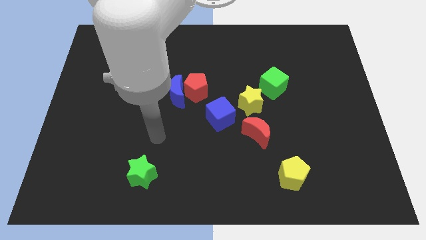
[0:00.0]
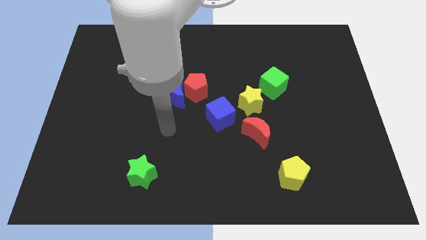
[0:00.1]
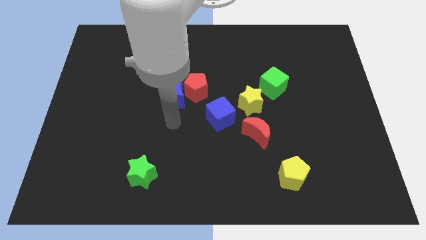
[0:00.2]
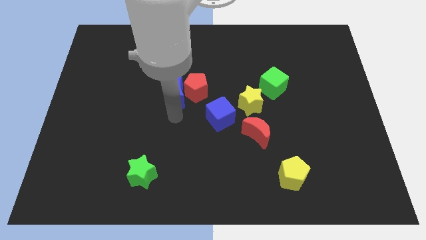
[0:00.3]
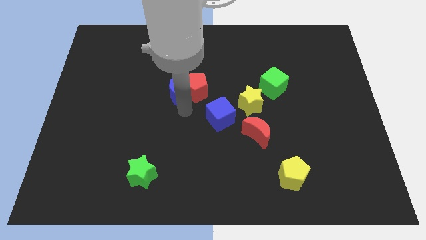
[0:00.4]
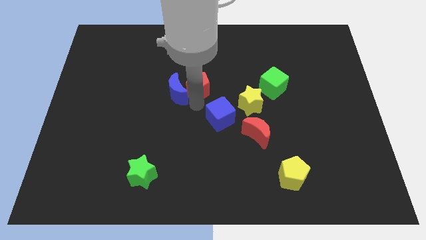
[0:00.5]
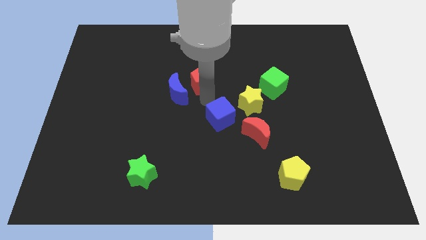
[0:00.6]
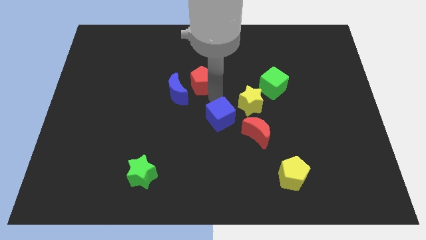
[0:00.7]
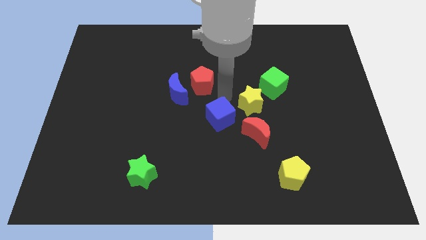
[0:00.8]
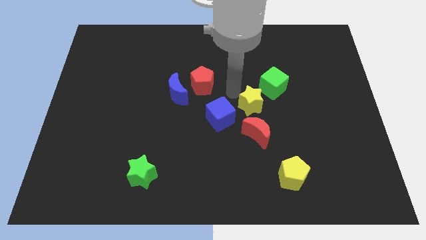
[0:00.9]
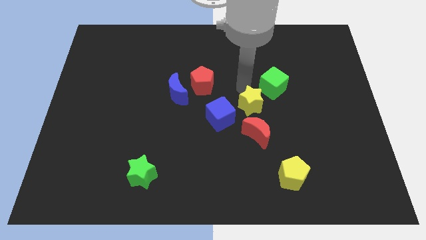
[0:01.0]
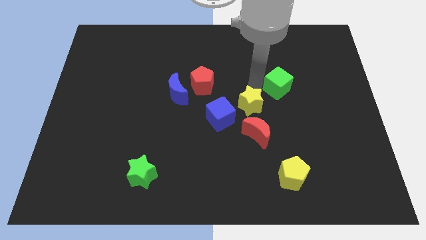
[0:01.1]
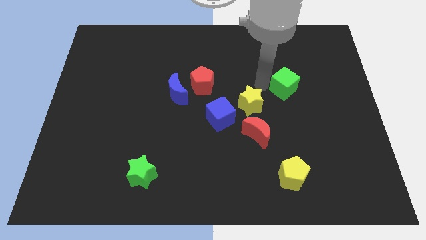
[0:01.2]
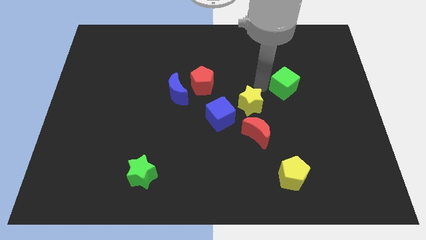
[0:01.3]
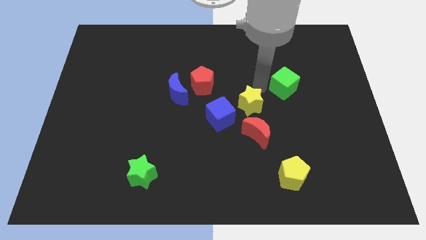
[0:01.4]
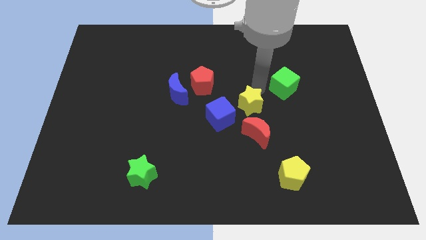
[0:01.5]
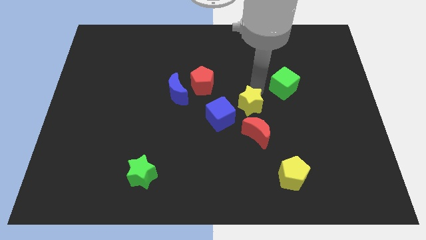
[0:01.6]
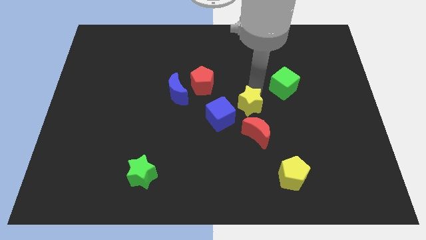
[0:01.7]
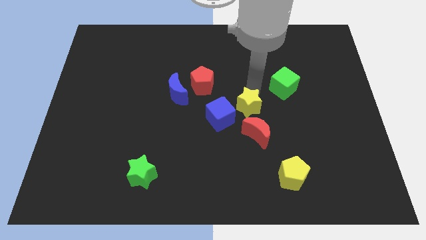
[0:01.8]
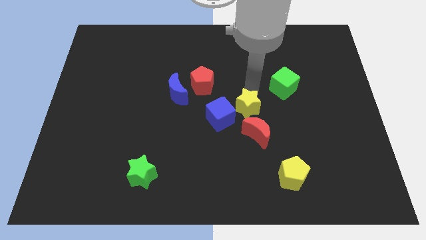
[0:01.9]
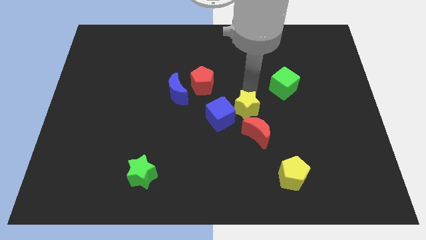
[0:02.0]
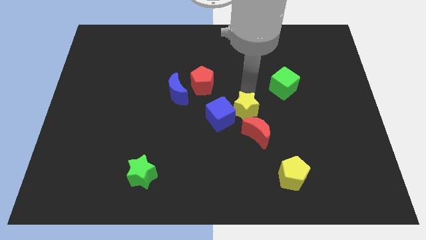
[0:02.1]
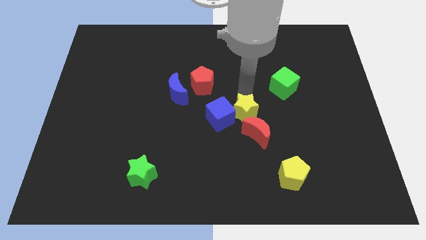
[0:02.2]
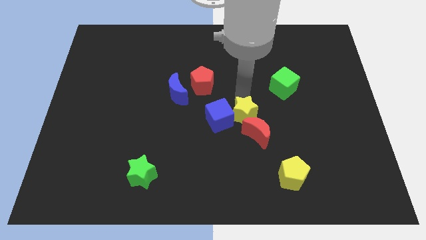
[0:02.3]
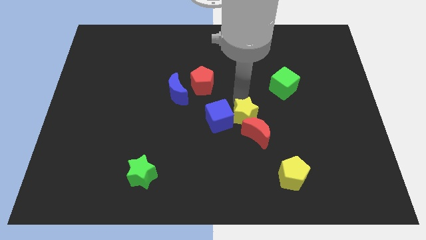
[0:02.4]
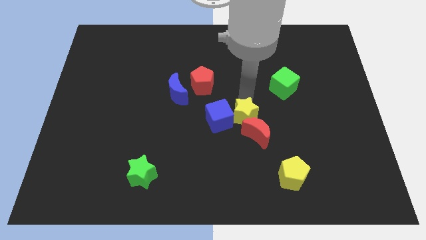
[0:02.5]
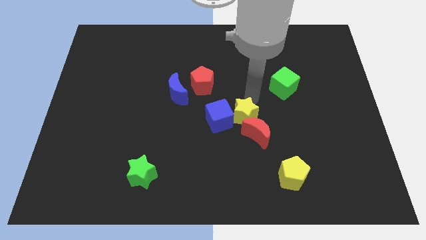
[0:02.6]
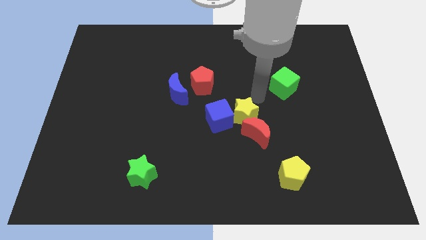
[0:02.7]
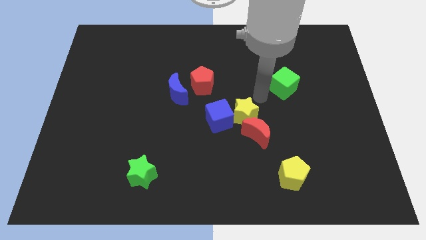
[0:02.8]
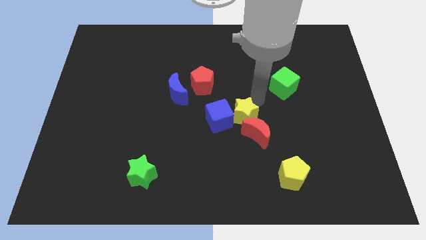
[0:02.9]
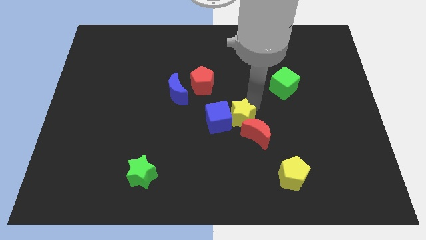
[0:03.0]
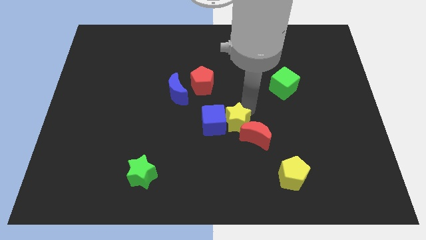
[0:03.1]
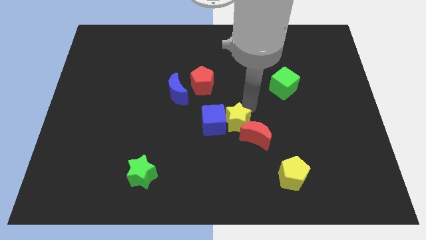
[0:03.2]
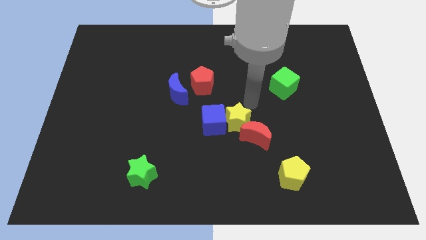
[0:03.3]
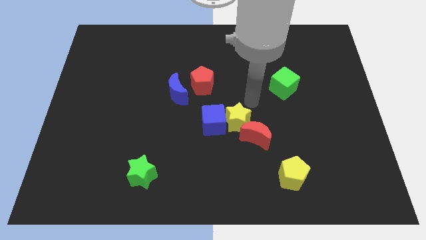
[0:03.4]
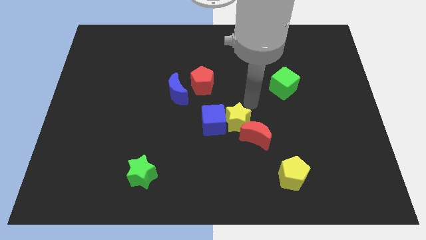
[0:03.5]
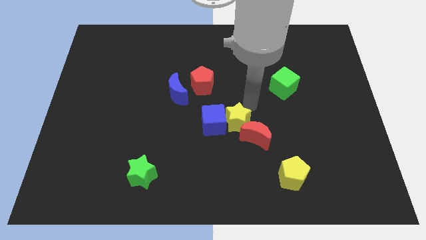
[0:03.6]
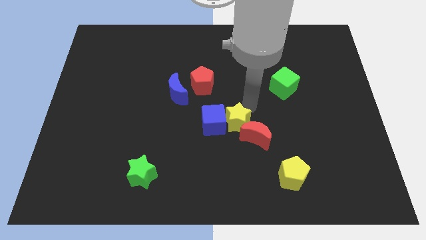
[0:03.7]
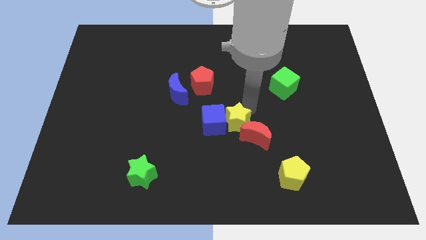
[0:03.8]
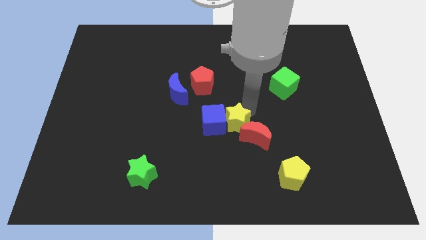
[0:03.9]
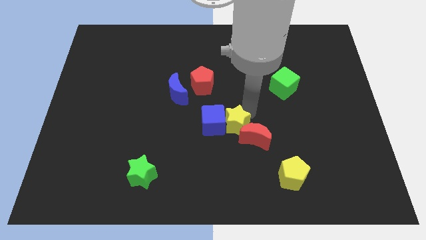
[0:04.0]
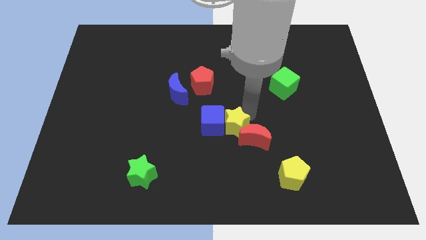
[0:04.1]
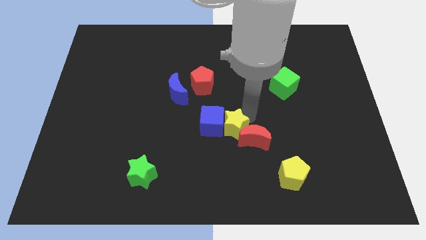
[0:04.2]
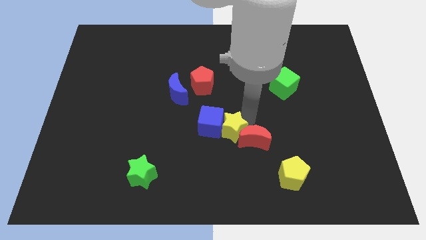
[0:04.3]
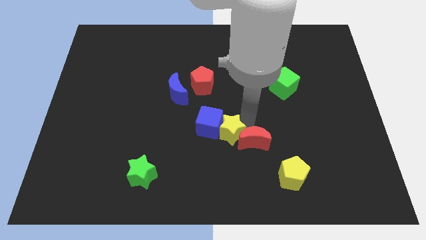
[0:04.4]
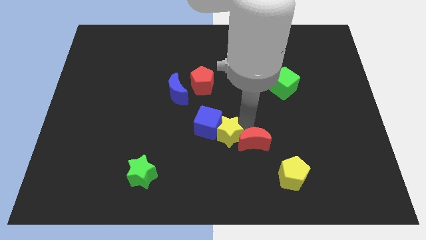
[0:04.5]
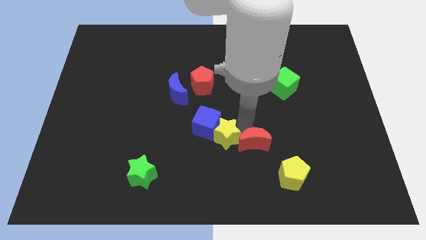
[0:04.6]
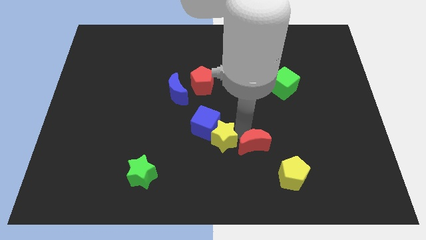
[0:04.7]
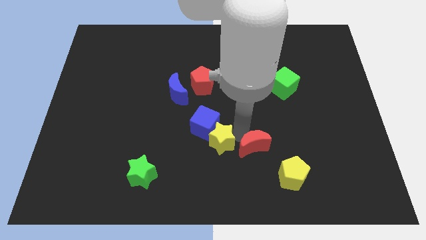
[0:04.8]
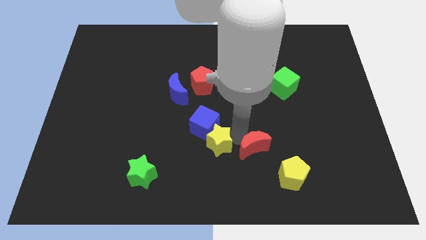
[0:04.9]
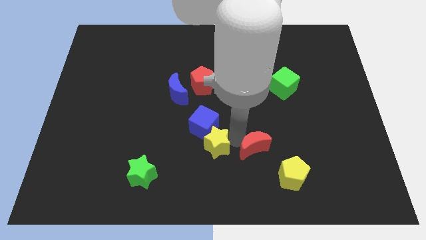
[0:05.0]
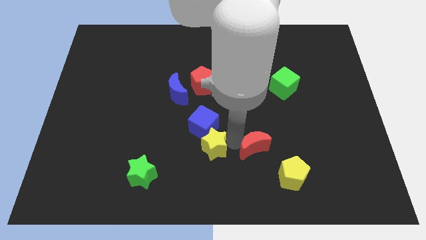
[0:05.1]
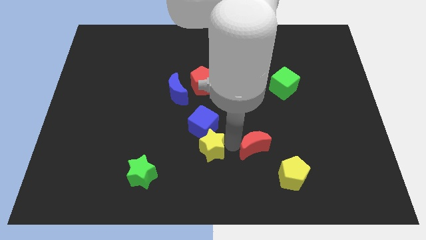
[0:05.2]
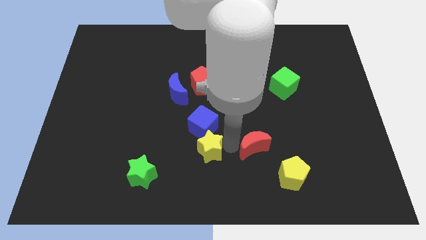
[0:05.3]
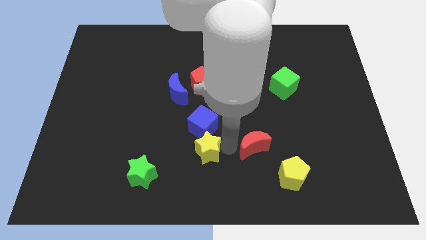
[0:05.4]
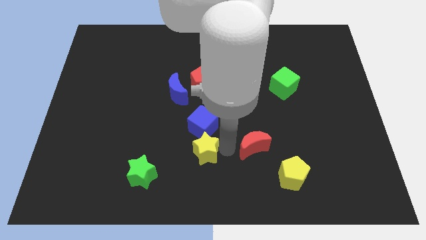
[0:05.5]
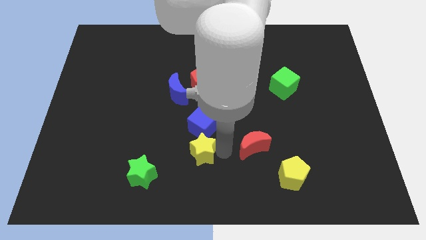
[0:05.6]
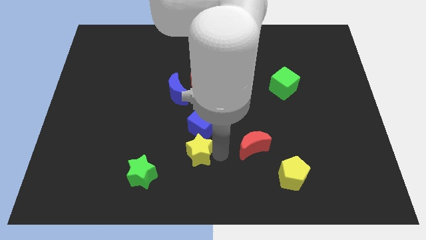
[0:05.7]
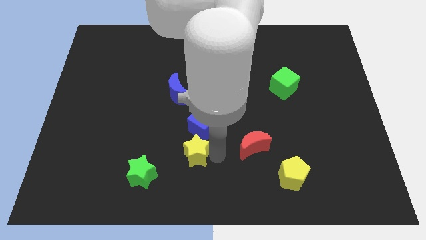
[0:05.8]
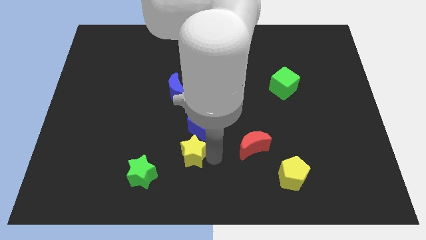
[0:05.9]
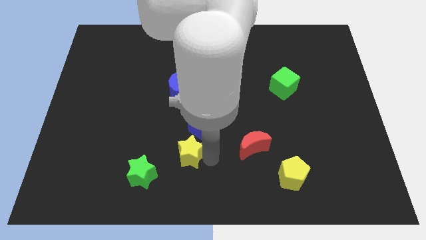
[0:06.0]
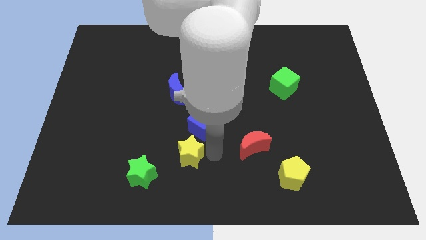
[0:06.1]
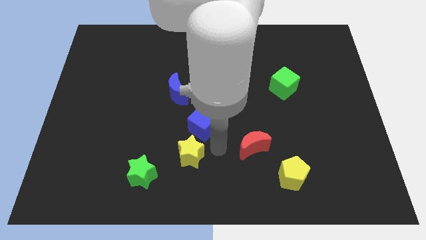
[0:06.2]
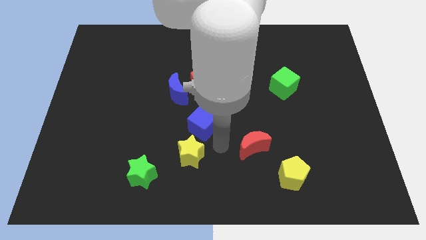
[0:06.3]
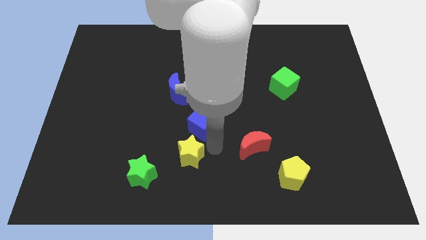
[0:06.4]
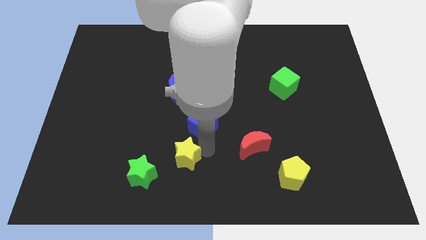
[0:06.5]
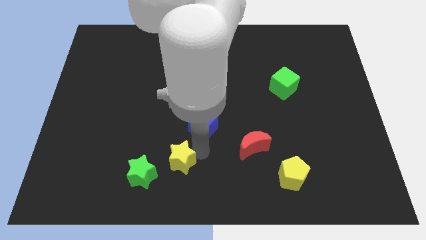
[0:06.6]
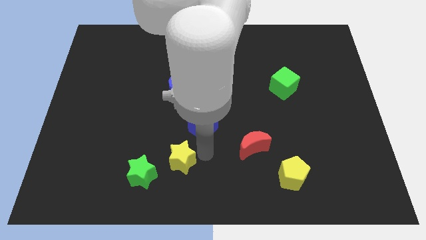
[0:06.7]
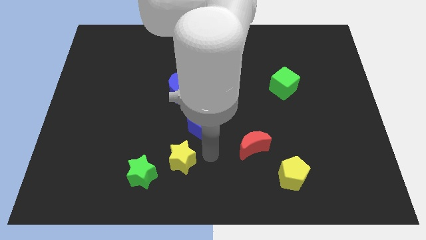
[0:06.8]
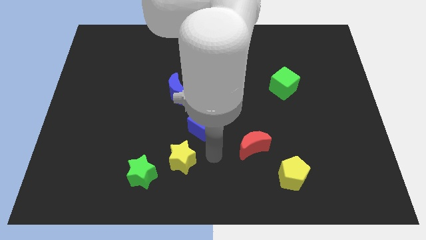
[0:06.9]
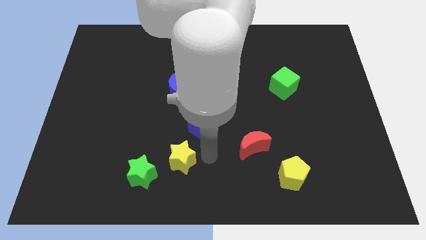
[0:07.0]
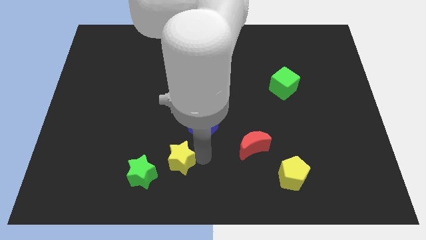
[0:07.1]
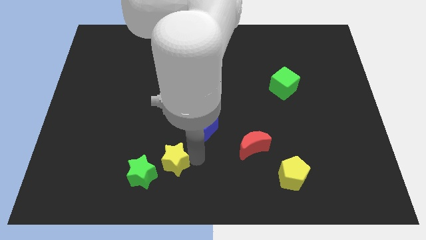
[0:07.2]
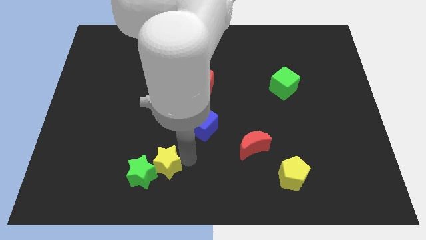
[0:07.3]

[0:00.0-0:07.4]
move the yellow star next to the green star

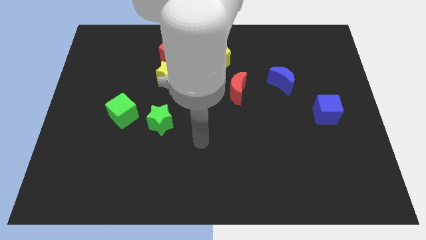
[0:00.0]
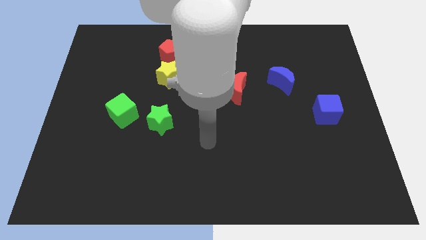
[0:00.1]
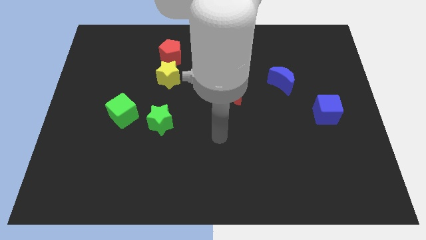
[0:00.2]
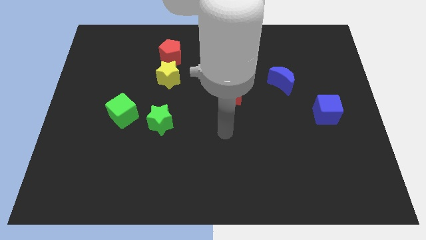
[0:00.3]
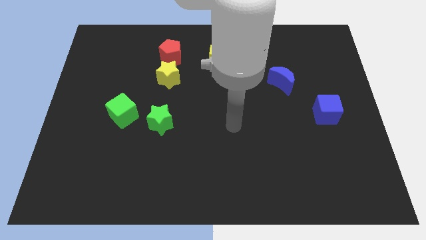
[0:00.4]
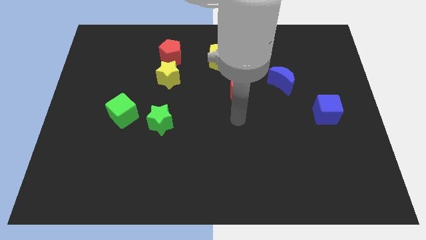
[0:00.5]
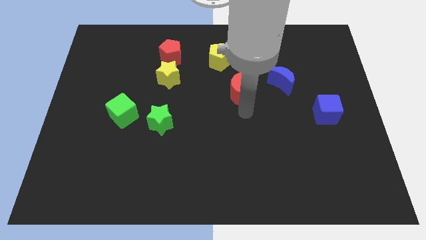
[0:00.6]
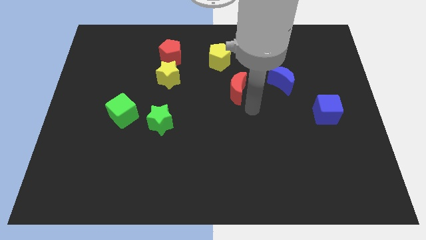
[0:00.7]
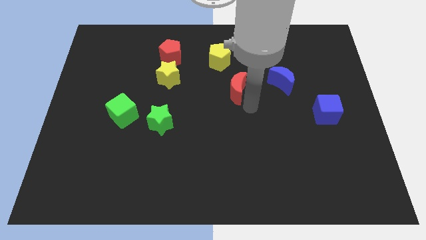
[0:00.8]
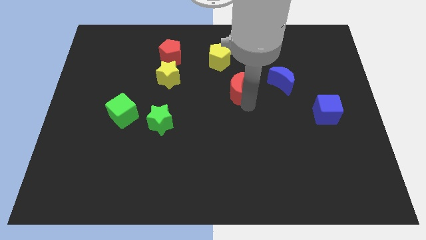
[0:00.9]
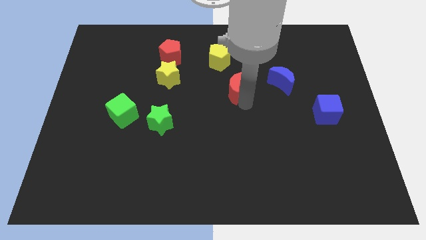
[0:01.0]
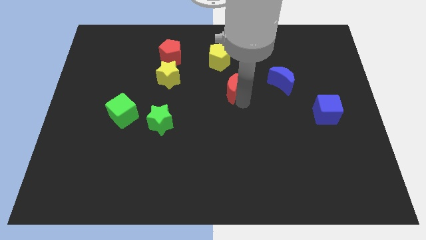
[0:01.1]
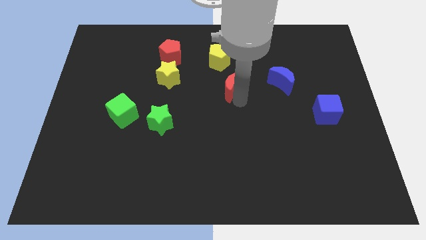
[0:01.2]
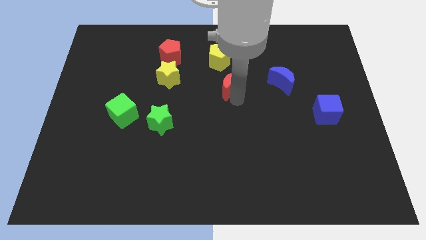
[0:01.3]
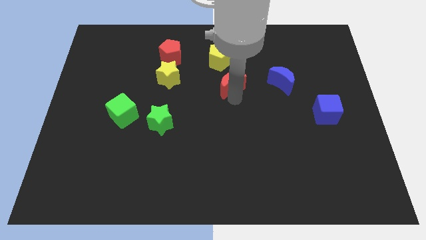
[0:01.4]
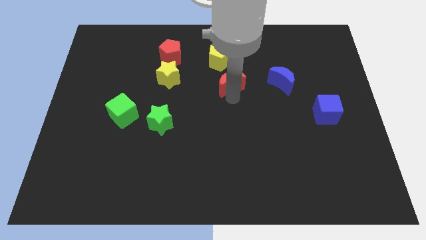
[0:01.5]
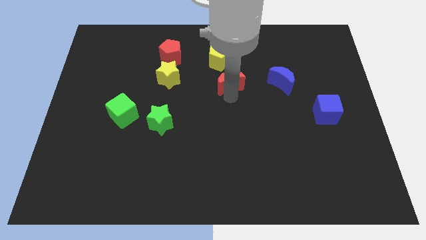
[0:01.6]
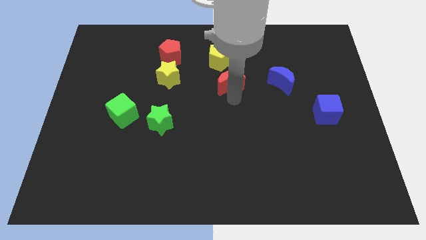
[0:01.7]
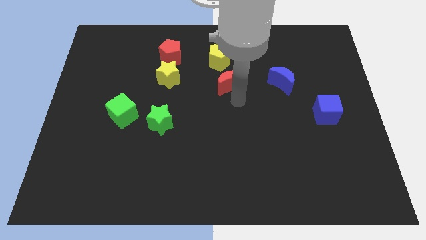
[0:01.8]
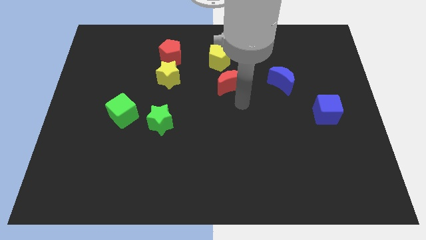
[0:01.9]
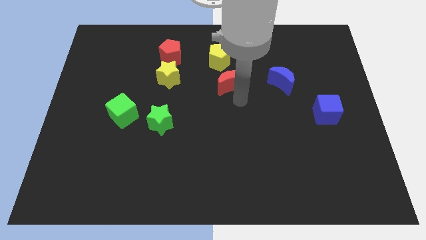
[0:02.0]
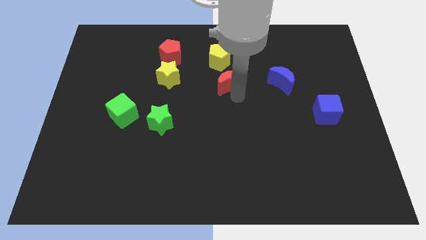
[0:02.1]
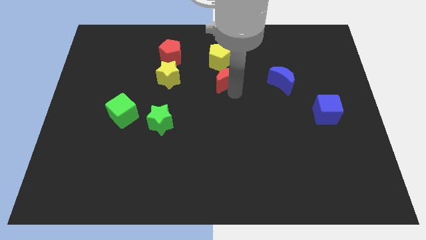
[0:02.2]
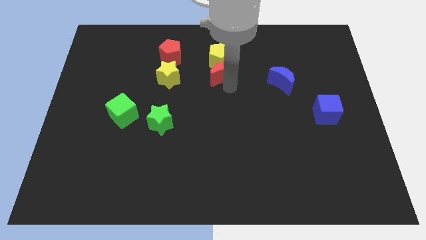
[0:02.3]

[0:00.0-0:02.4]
move the red moon next to the yellow pentagon
